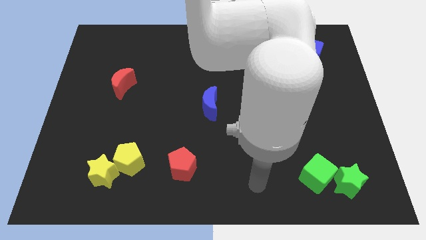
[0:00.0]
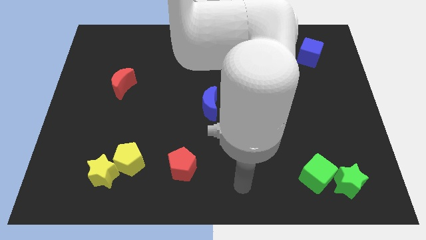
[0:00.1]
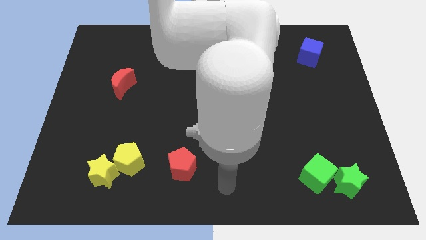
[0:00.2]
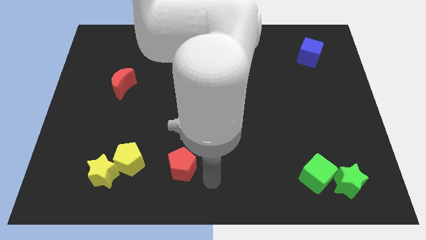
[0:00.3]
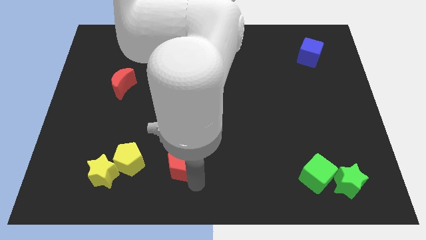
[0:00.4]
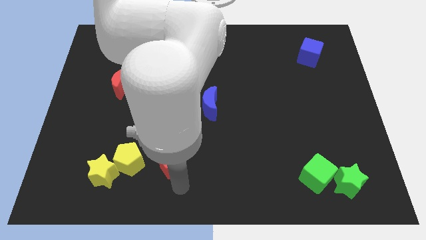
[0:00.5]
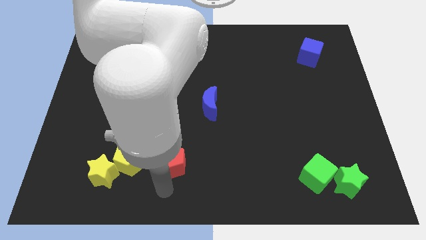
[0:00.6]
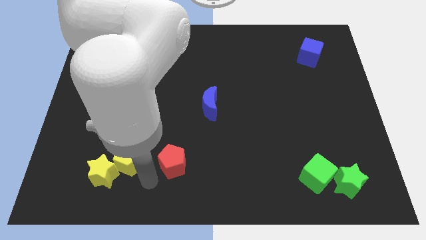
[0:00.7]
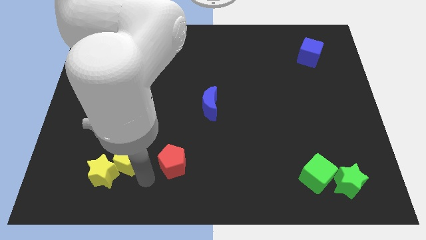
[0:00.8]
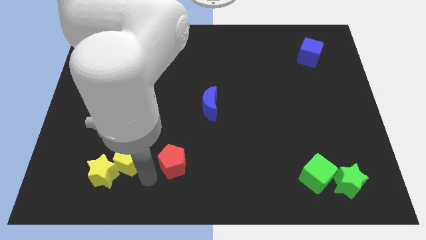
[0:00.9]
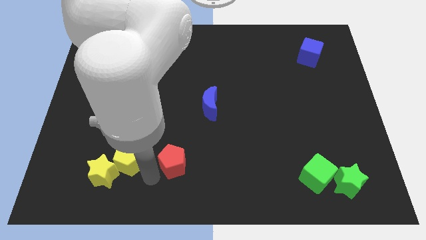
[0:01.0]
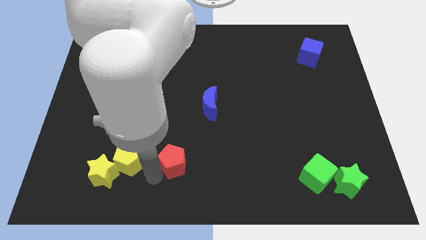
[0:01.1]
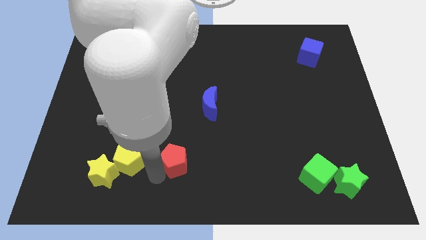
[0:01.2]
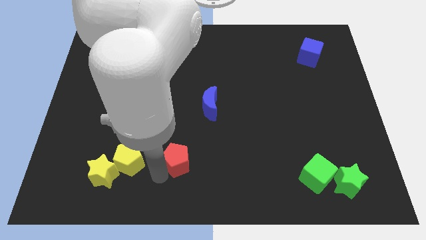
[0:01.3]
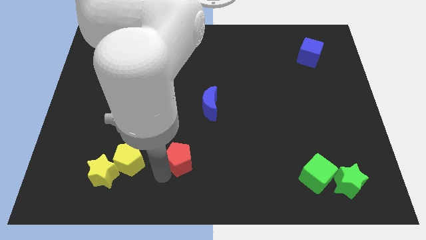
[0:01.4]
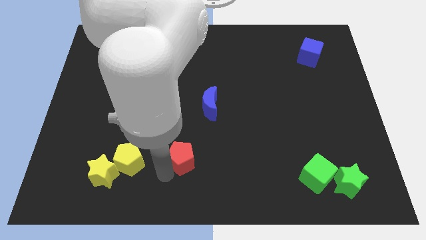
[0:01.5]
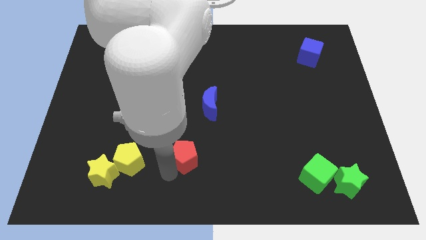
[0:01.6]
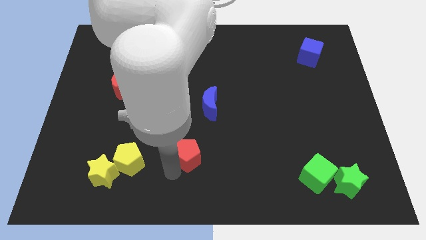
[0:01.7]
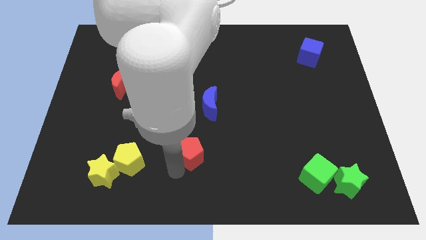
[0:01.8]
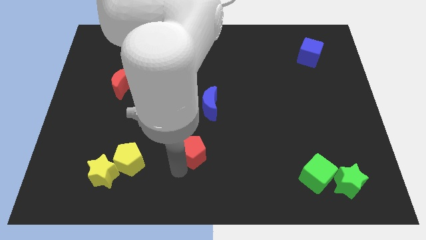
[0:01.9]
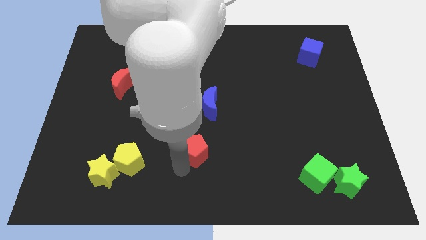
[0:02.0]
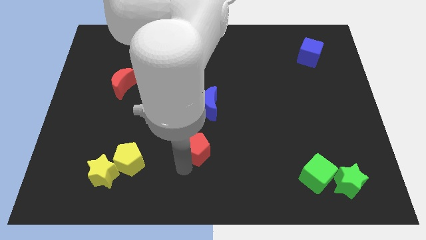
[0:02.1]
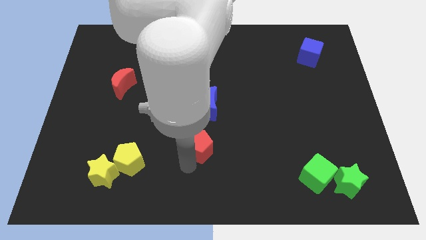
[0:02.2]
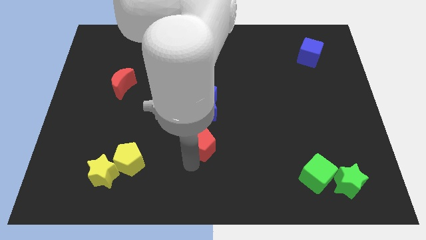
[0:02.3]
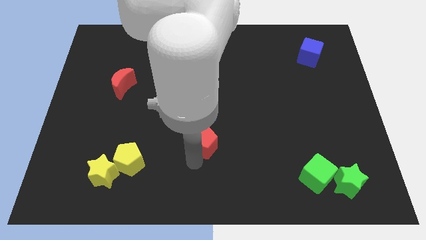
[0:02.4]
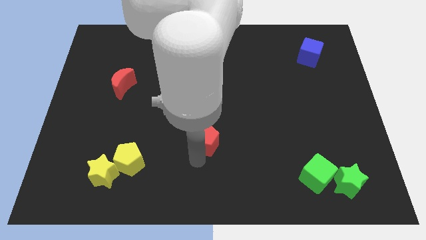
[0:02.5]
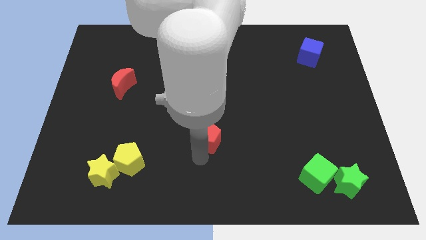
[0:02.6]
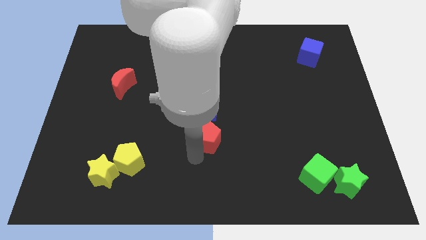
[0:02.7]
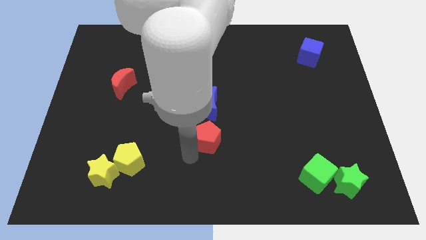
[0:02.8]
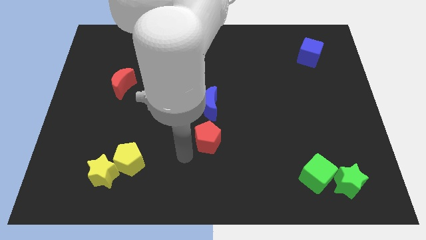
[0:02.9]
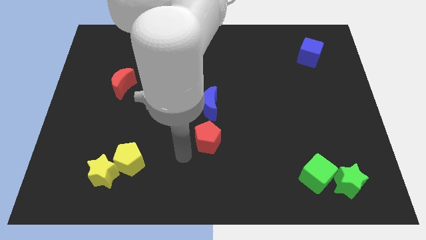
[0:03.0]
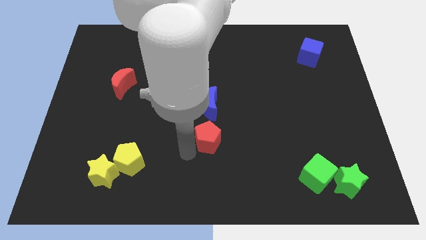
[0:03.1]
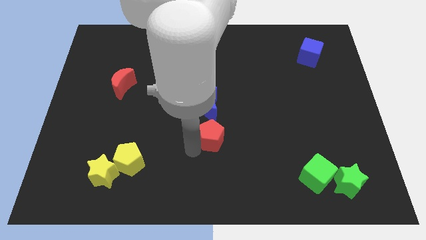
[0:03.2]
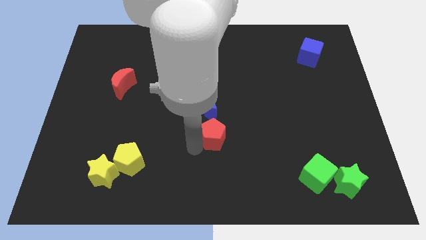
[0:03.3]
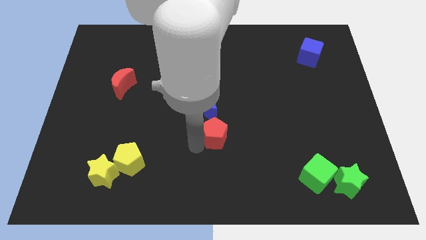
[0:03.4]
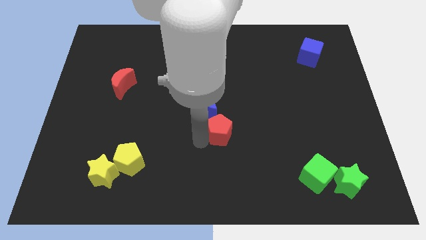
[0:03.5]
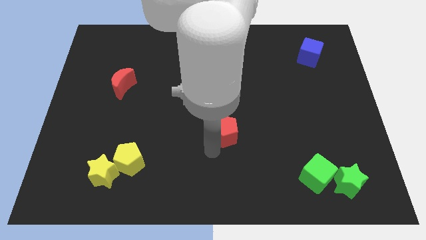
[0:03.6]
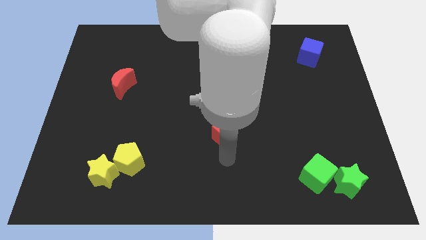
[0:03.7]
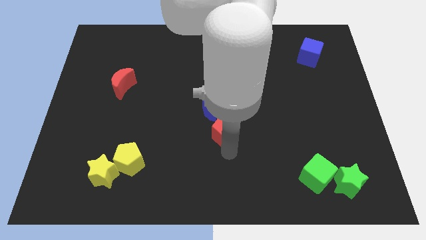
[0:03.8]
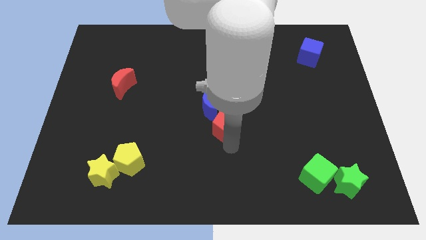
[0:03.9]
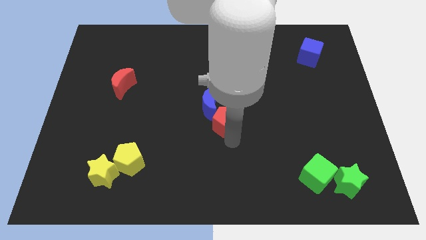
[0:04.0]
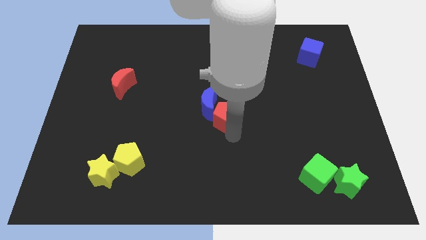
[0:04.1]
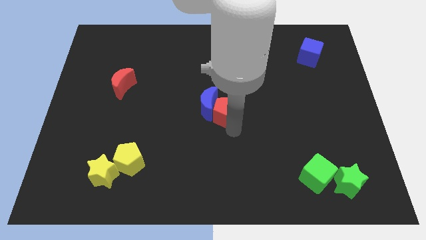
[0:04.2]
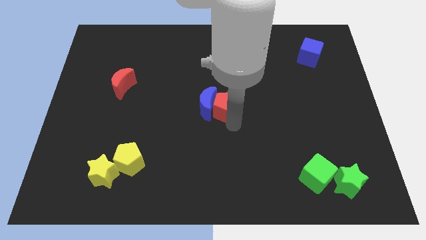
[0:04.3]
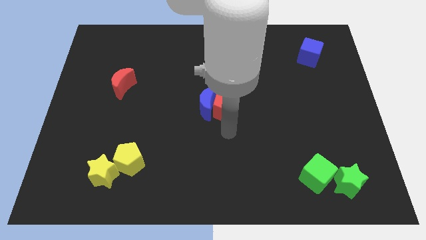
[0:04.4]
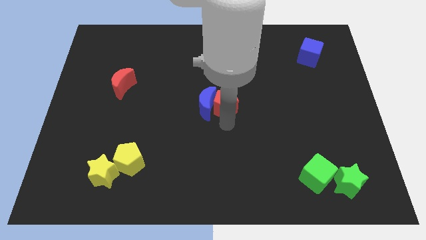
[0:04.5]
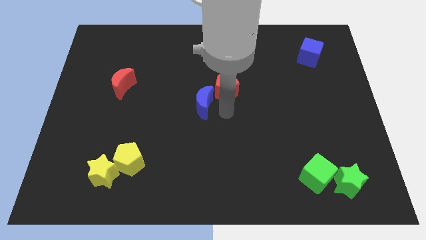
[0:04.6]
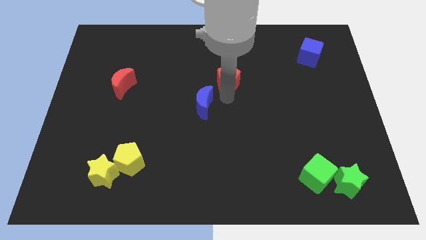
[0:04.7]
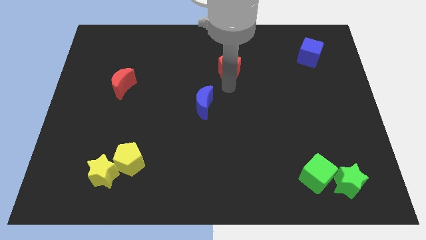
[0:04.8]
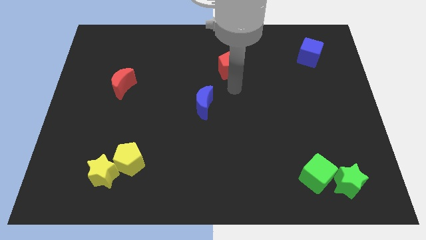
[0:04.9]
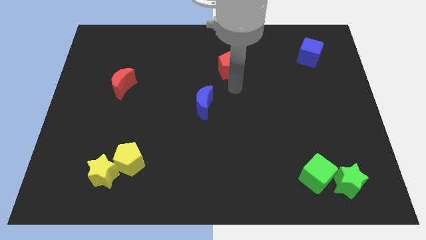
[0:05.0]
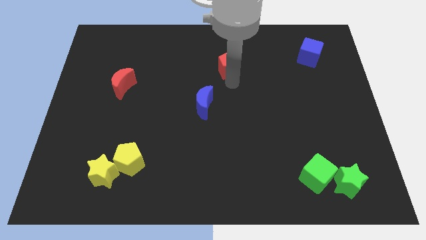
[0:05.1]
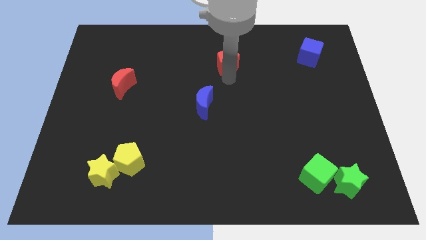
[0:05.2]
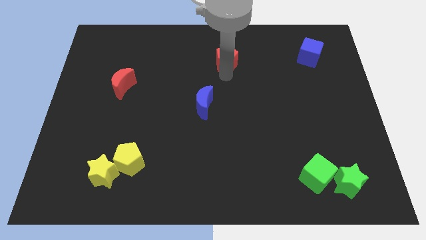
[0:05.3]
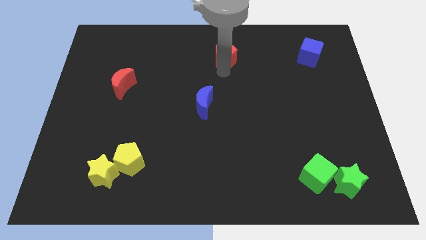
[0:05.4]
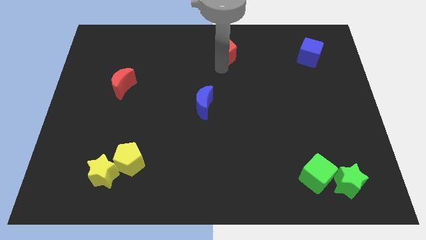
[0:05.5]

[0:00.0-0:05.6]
put the red pentagon to the top side
